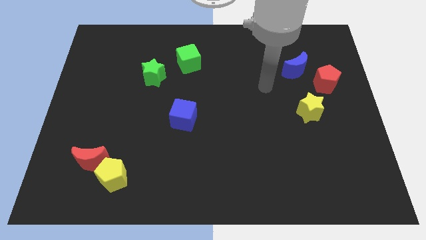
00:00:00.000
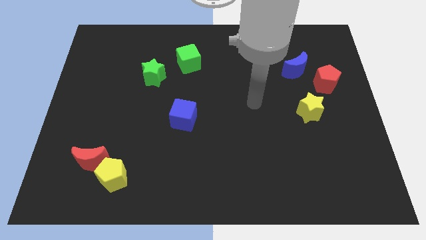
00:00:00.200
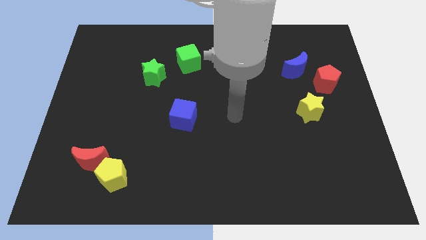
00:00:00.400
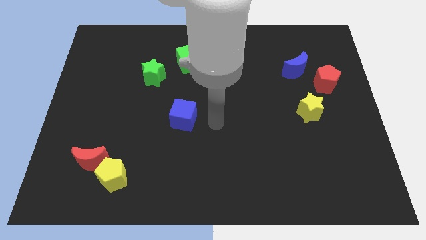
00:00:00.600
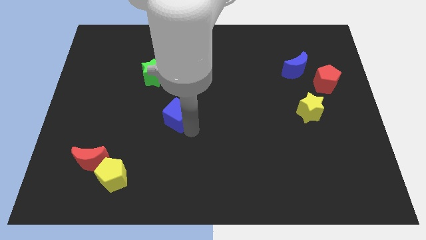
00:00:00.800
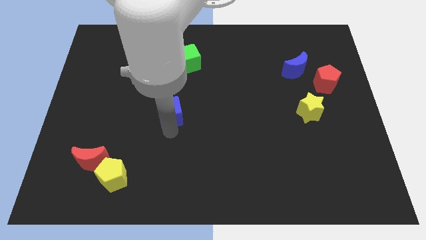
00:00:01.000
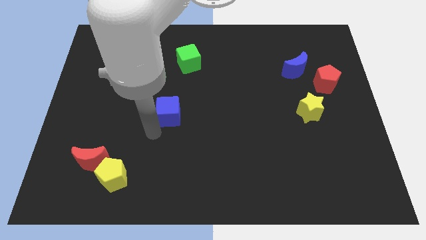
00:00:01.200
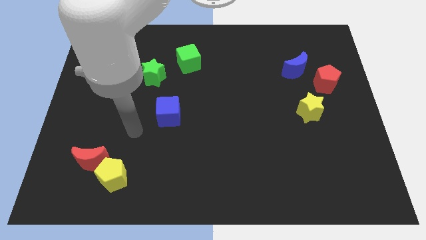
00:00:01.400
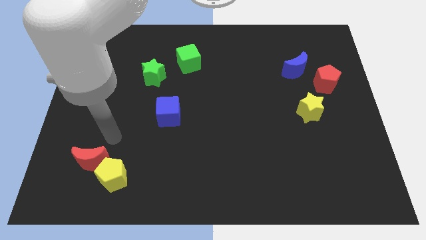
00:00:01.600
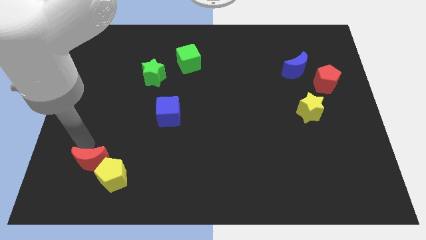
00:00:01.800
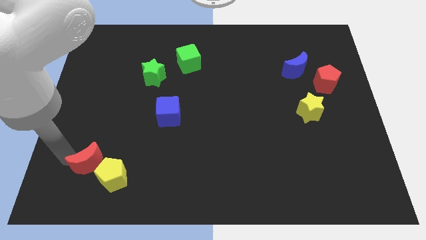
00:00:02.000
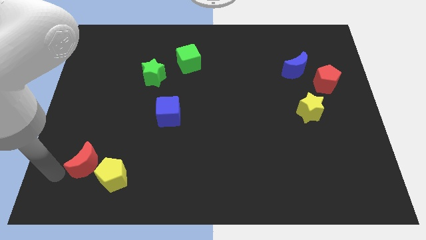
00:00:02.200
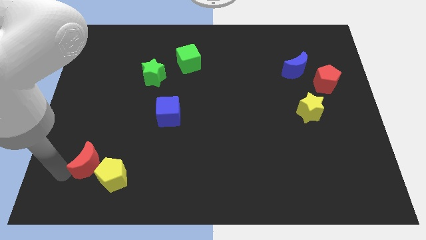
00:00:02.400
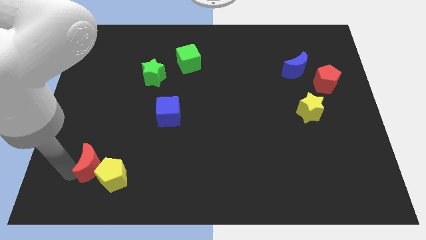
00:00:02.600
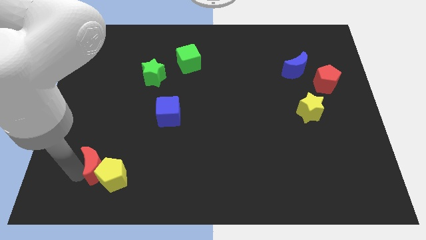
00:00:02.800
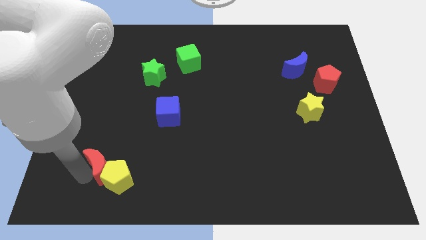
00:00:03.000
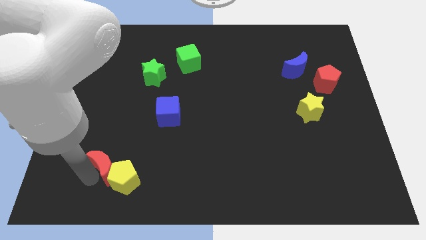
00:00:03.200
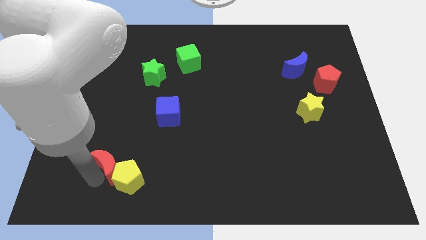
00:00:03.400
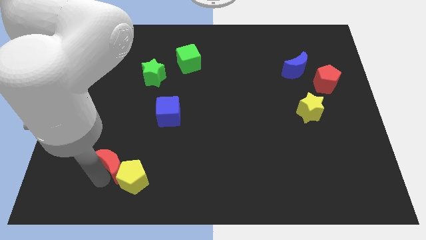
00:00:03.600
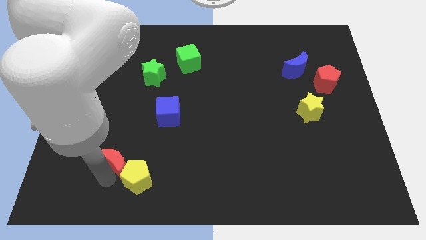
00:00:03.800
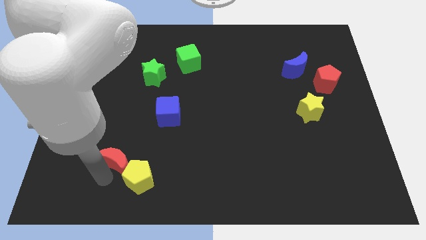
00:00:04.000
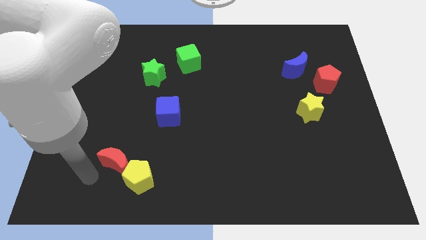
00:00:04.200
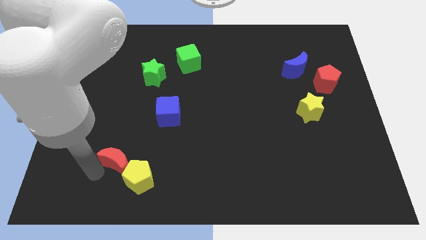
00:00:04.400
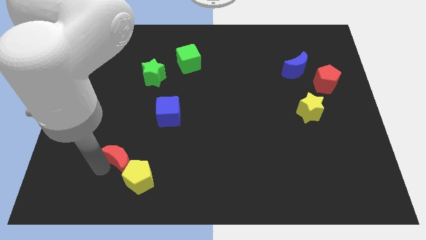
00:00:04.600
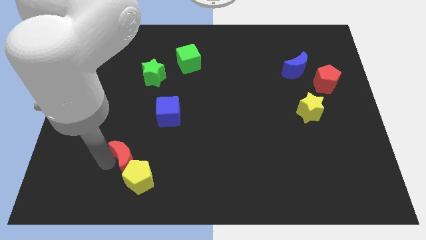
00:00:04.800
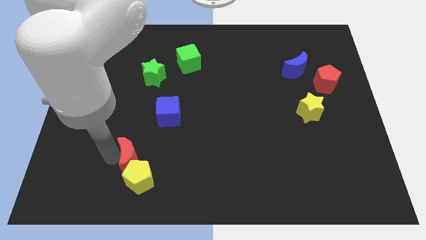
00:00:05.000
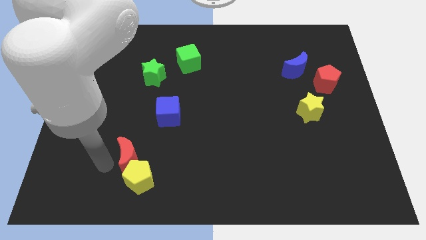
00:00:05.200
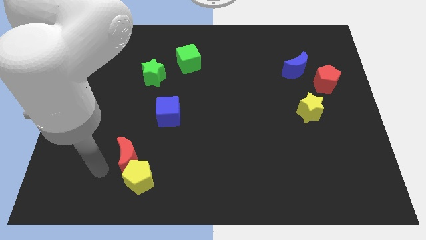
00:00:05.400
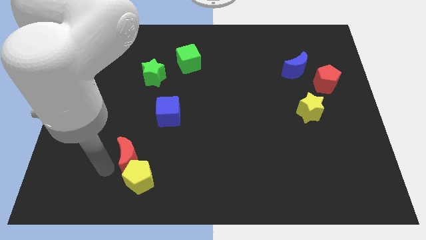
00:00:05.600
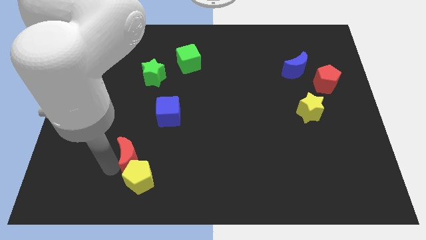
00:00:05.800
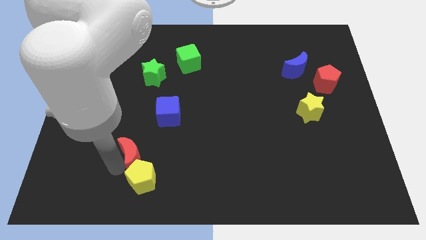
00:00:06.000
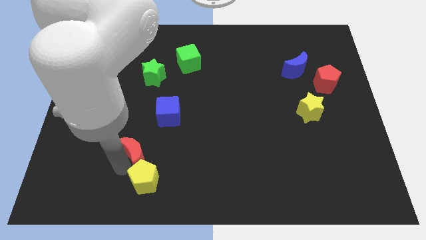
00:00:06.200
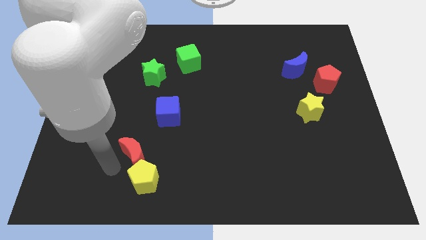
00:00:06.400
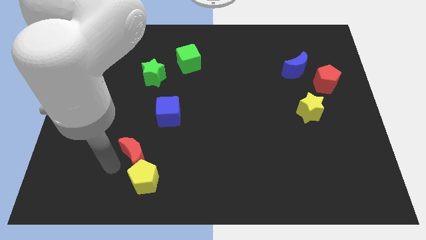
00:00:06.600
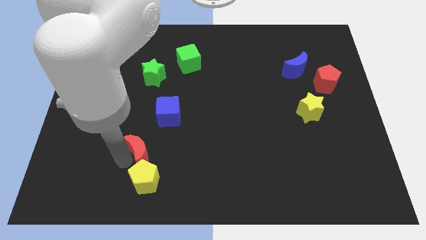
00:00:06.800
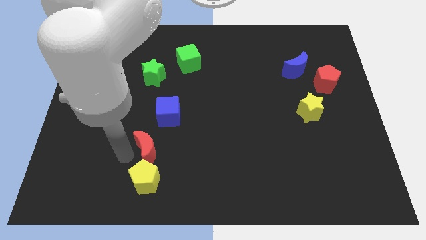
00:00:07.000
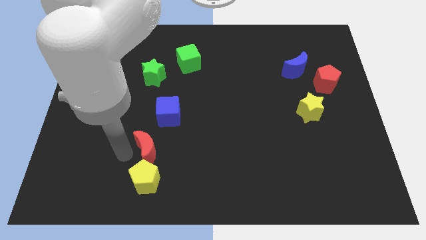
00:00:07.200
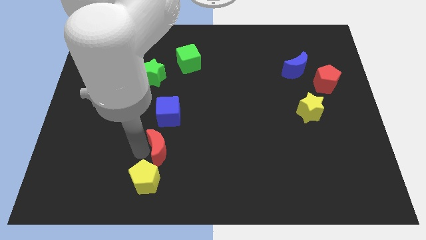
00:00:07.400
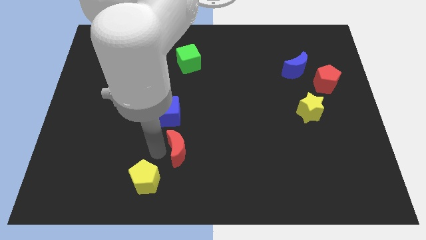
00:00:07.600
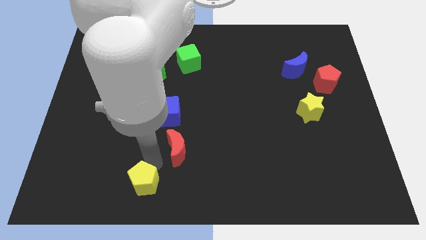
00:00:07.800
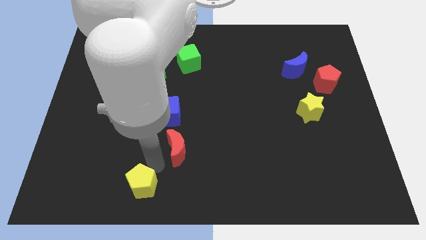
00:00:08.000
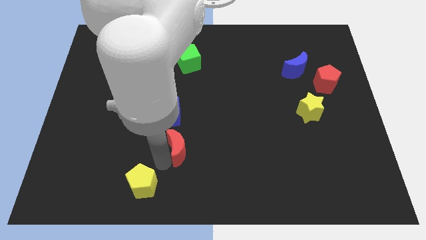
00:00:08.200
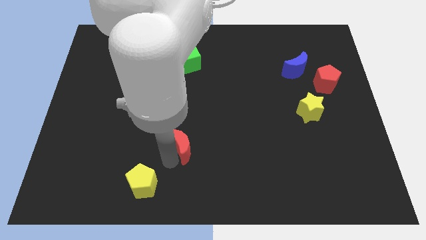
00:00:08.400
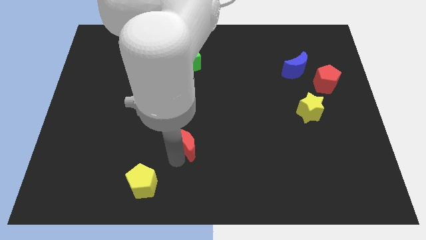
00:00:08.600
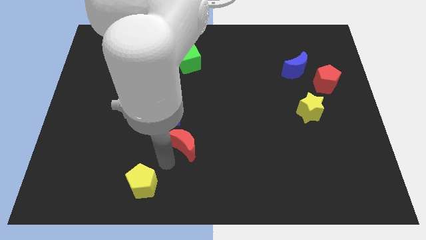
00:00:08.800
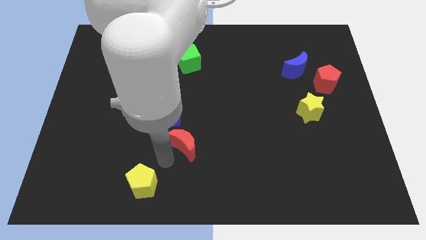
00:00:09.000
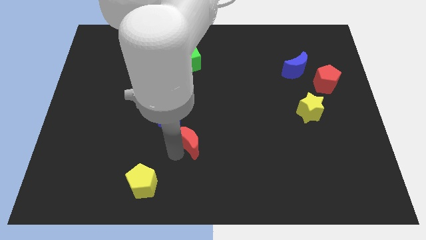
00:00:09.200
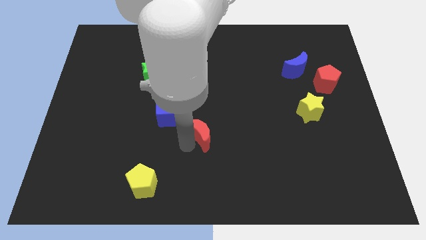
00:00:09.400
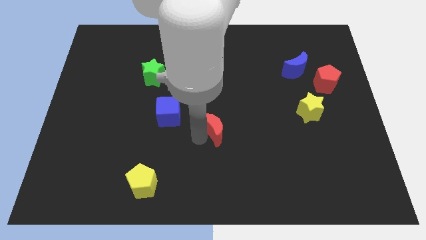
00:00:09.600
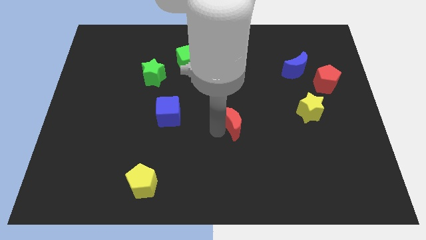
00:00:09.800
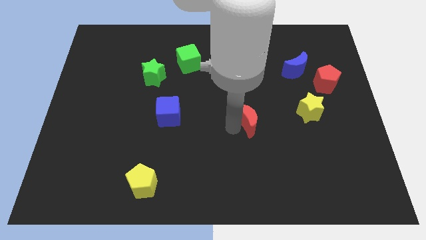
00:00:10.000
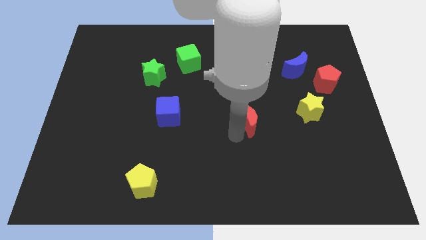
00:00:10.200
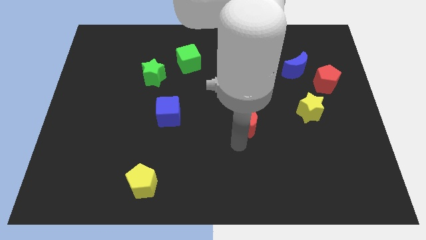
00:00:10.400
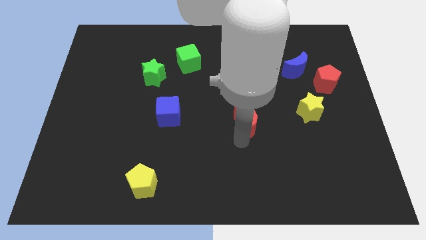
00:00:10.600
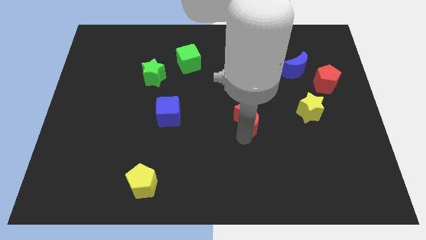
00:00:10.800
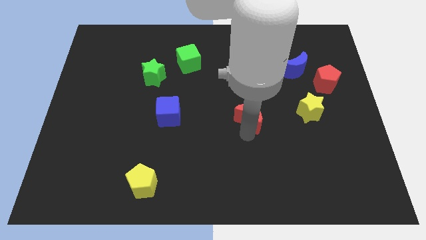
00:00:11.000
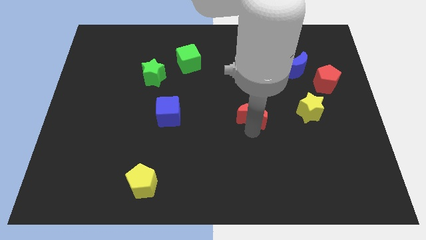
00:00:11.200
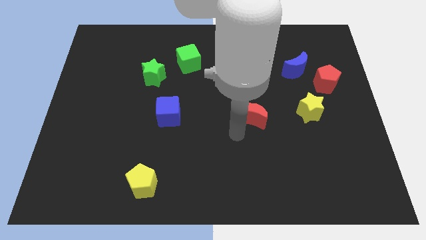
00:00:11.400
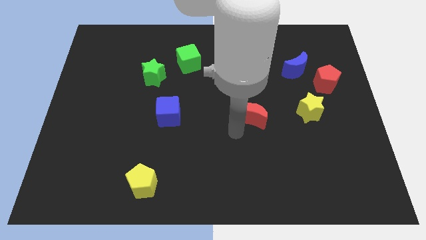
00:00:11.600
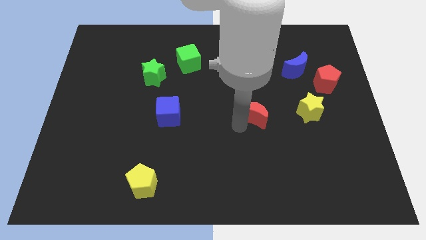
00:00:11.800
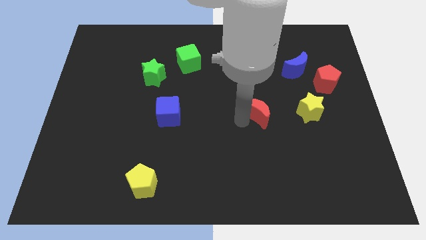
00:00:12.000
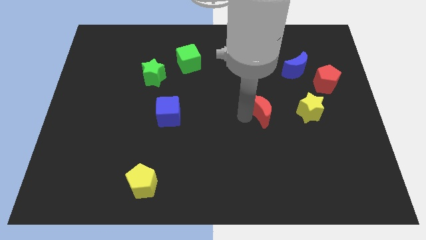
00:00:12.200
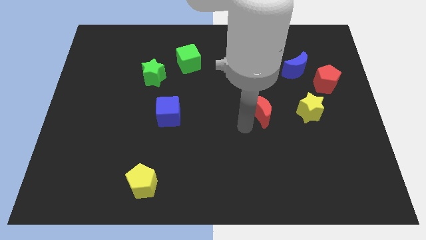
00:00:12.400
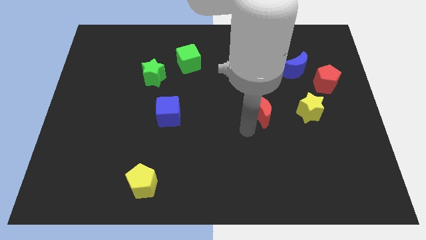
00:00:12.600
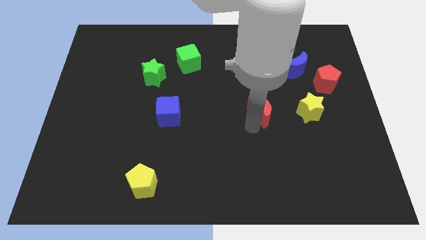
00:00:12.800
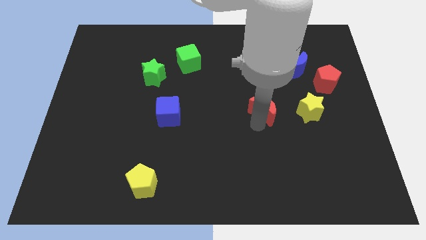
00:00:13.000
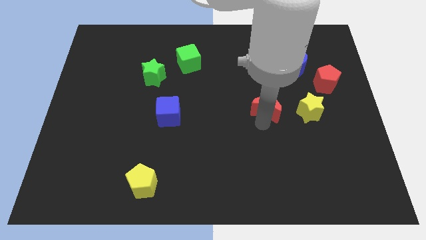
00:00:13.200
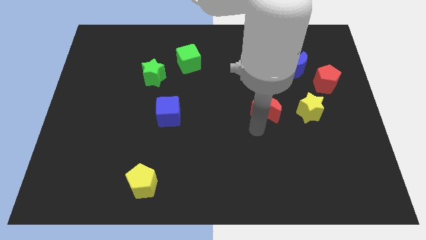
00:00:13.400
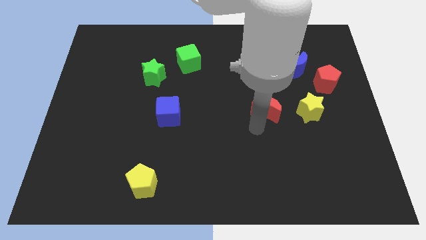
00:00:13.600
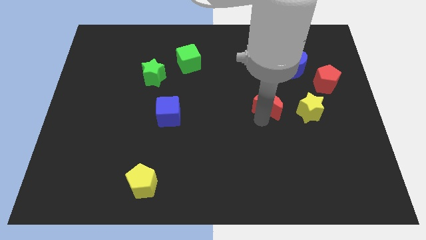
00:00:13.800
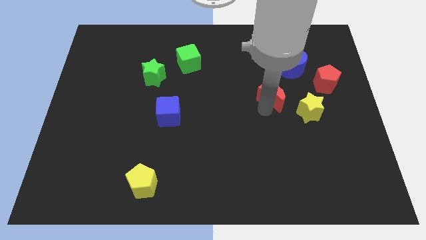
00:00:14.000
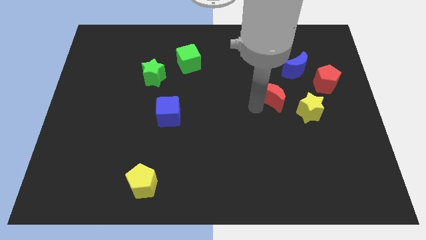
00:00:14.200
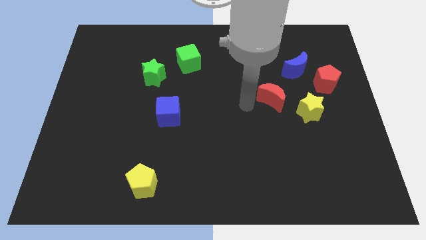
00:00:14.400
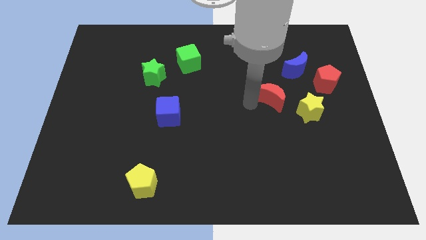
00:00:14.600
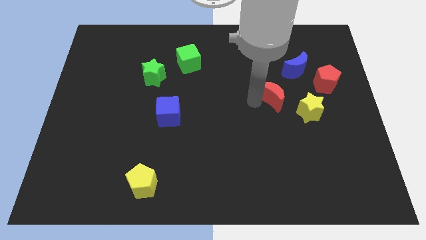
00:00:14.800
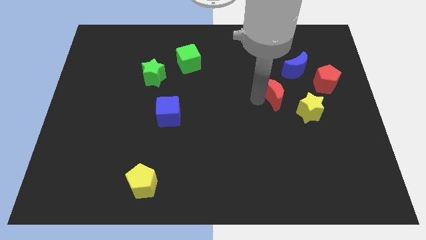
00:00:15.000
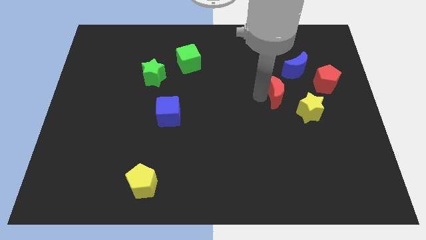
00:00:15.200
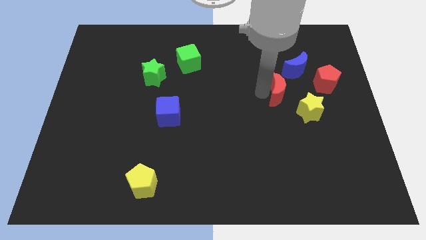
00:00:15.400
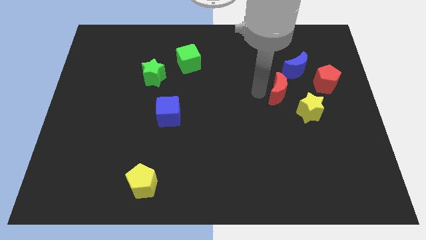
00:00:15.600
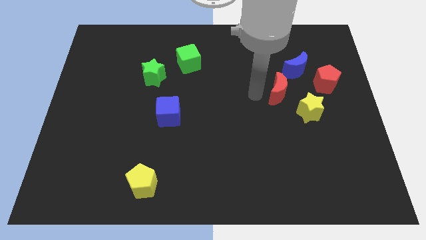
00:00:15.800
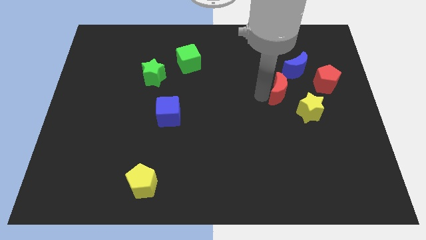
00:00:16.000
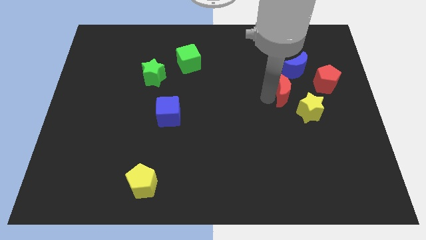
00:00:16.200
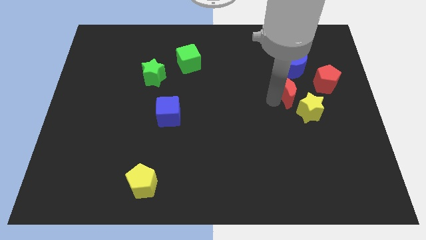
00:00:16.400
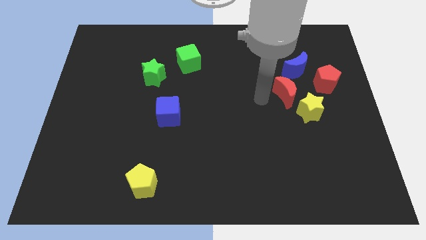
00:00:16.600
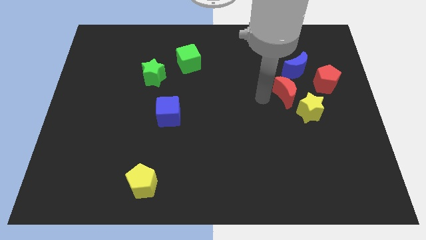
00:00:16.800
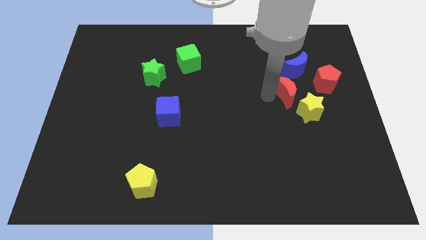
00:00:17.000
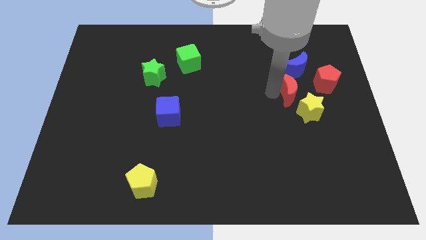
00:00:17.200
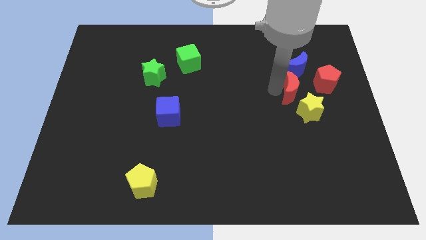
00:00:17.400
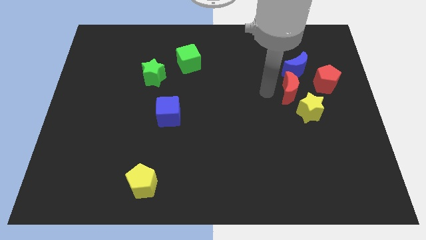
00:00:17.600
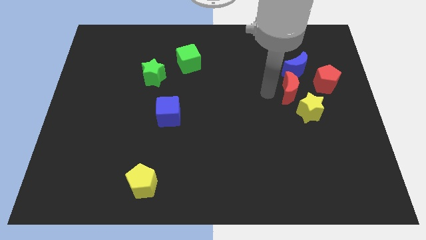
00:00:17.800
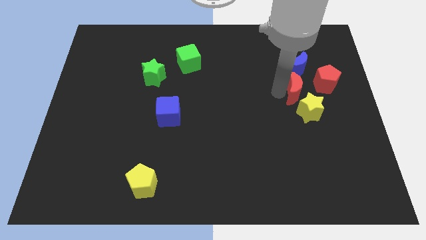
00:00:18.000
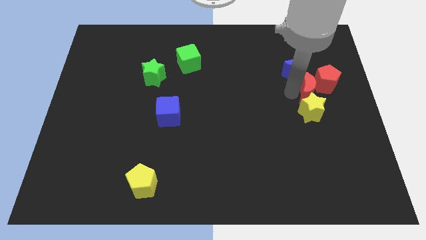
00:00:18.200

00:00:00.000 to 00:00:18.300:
push the red moon to the red pentagon
